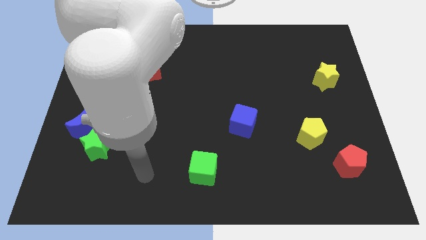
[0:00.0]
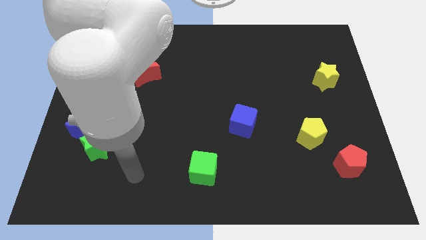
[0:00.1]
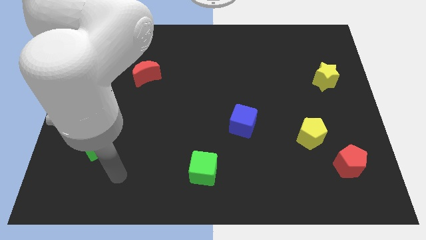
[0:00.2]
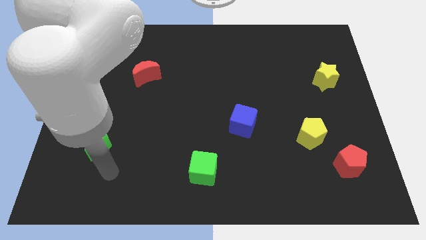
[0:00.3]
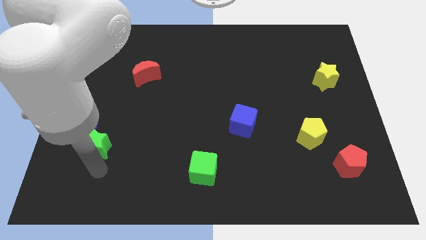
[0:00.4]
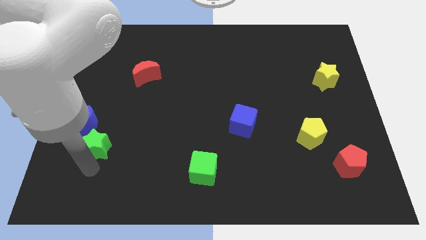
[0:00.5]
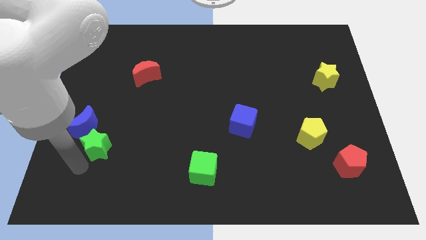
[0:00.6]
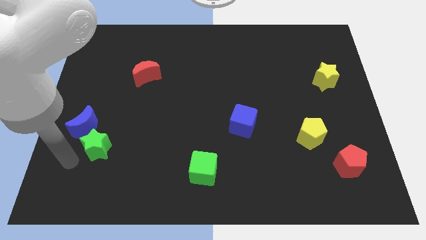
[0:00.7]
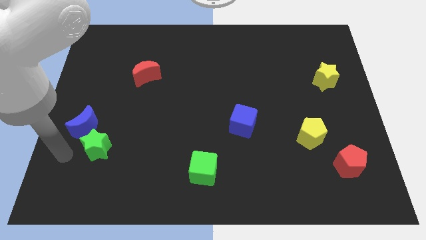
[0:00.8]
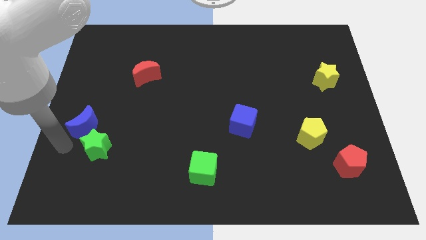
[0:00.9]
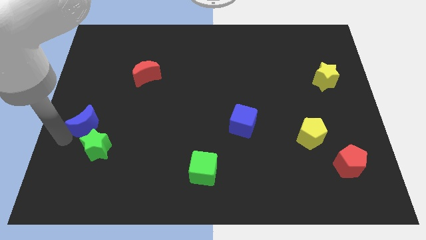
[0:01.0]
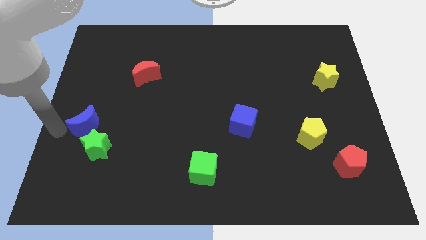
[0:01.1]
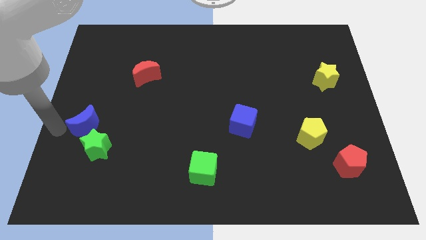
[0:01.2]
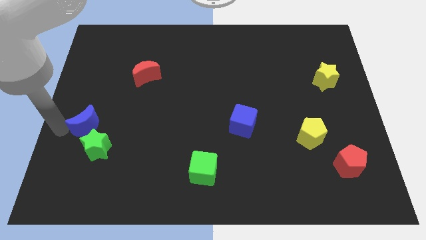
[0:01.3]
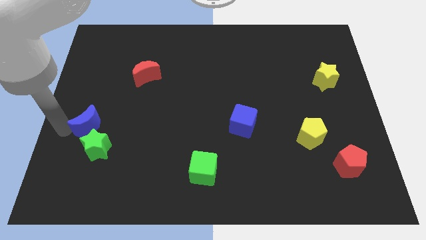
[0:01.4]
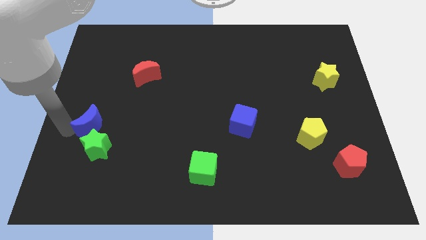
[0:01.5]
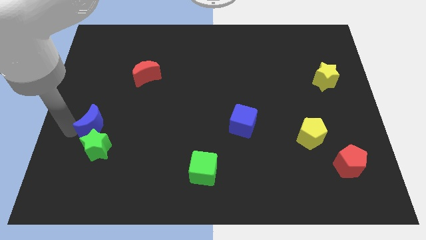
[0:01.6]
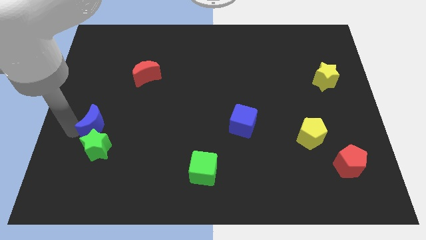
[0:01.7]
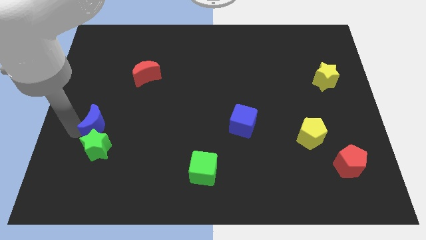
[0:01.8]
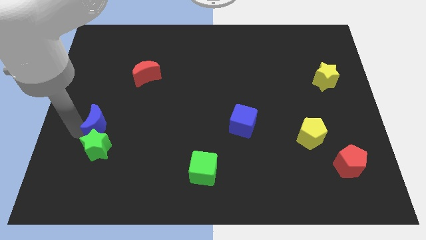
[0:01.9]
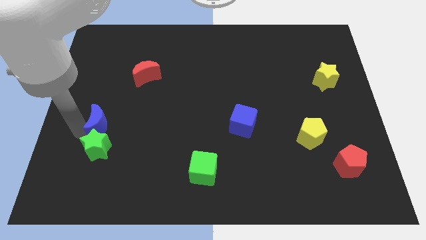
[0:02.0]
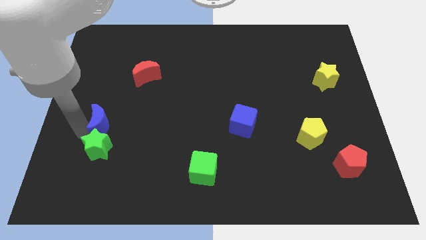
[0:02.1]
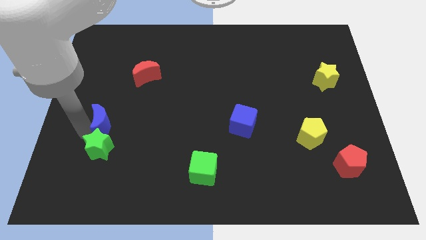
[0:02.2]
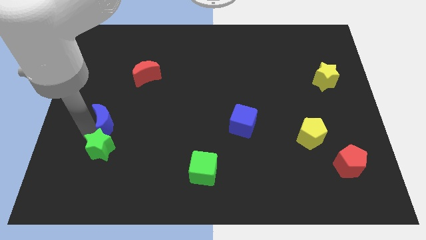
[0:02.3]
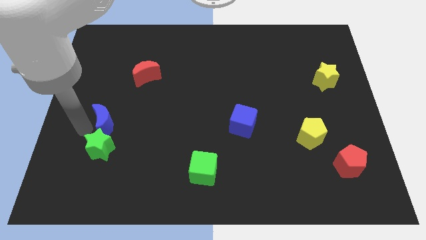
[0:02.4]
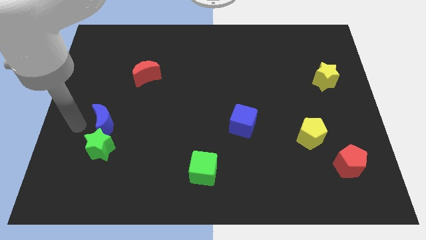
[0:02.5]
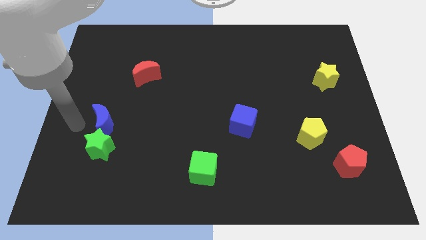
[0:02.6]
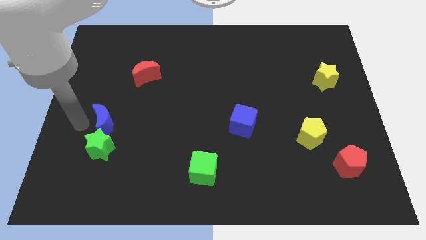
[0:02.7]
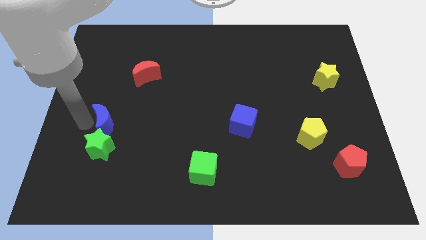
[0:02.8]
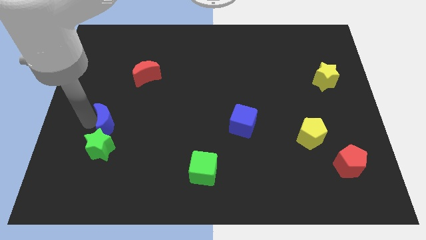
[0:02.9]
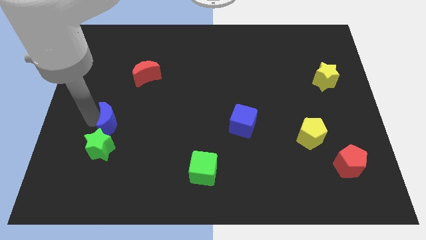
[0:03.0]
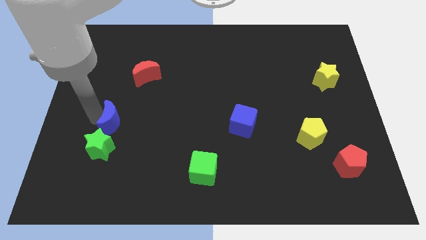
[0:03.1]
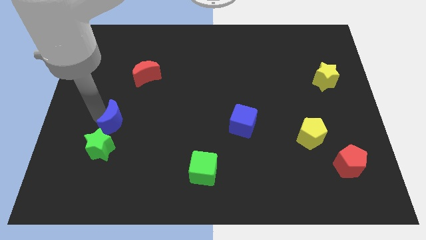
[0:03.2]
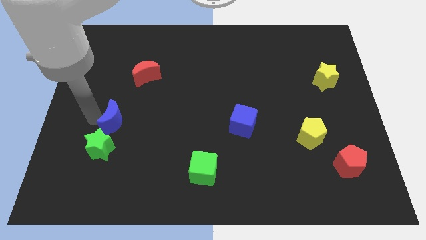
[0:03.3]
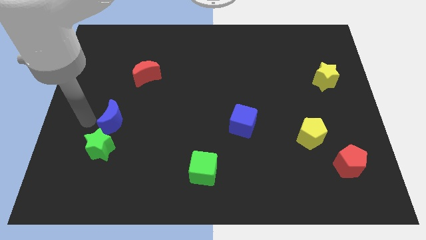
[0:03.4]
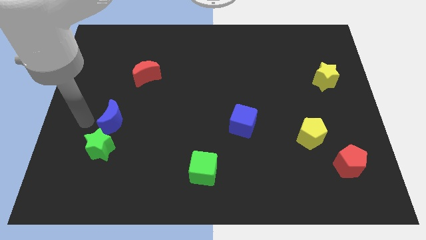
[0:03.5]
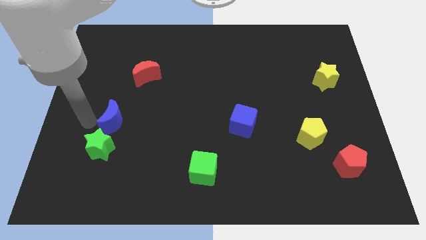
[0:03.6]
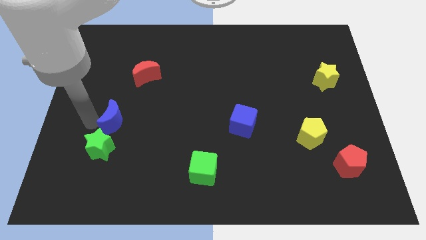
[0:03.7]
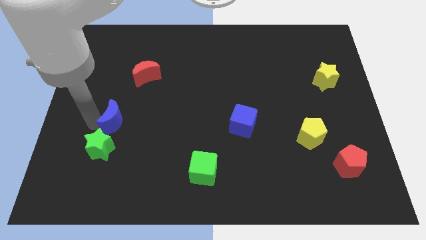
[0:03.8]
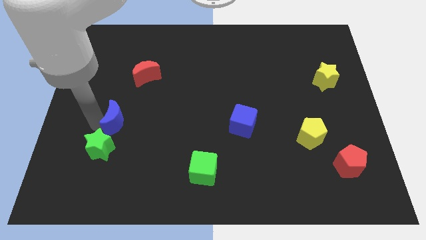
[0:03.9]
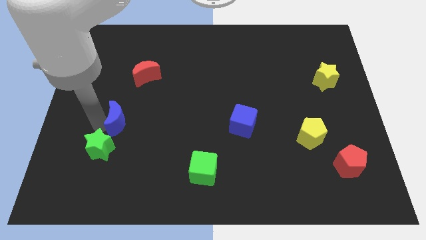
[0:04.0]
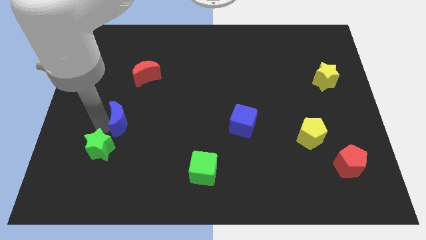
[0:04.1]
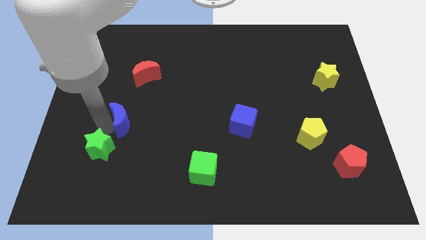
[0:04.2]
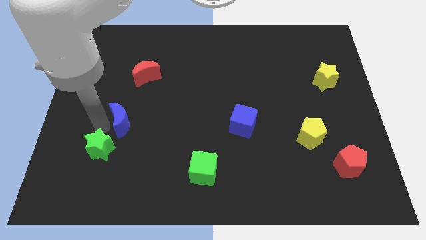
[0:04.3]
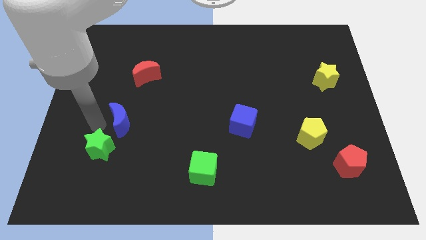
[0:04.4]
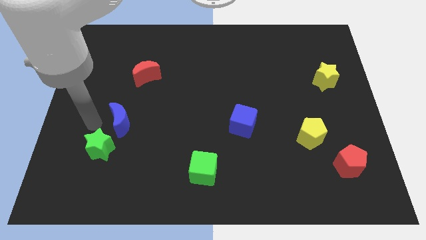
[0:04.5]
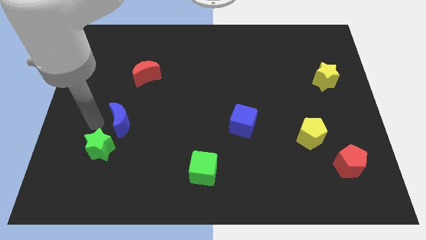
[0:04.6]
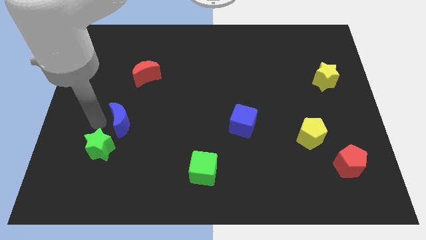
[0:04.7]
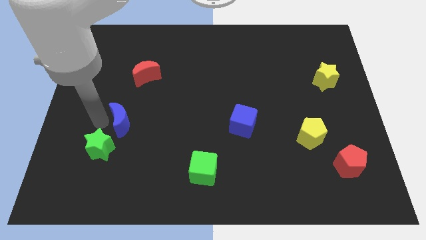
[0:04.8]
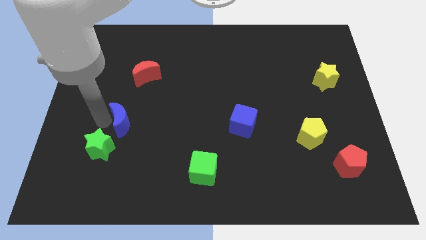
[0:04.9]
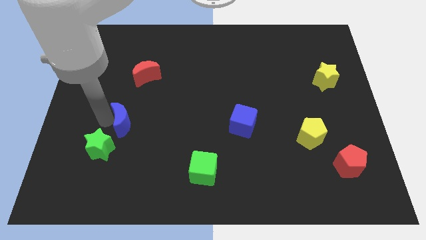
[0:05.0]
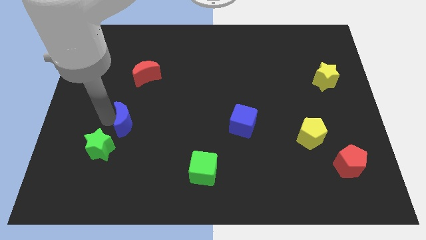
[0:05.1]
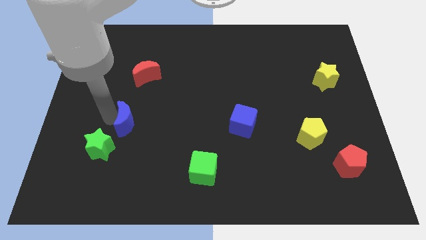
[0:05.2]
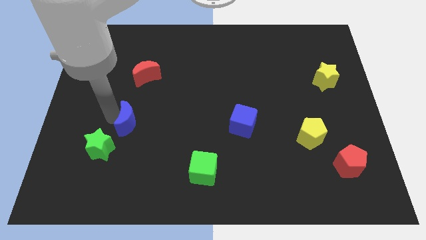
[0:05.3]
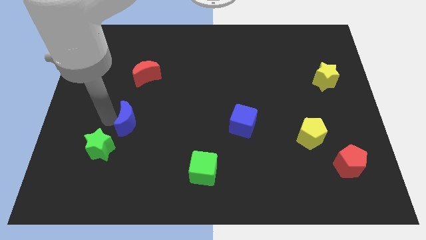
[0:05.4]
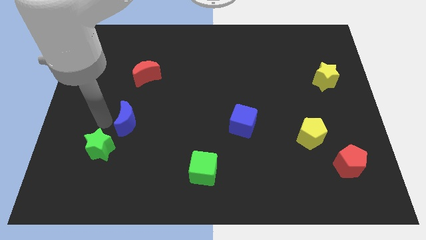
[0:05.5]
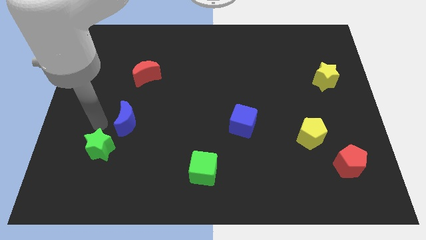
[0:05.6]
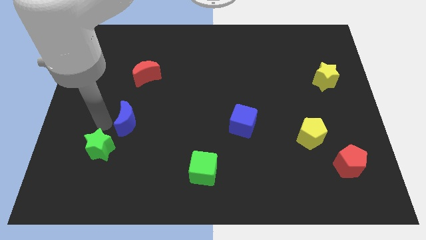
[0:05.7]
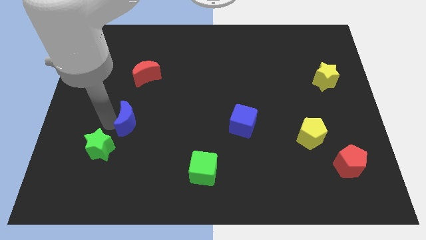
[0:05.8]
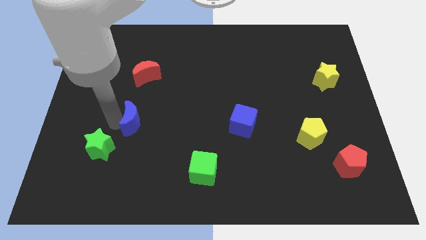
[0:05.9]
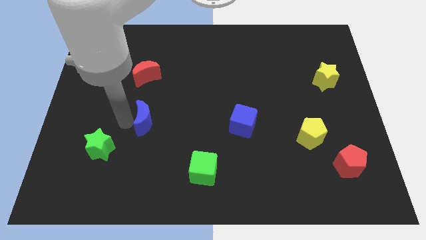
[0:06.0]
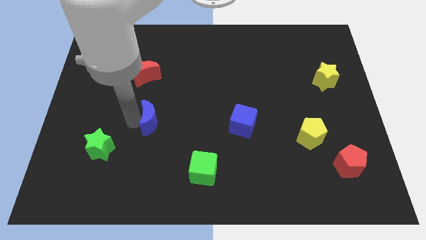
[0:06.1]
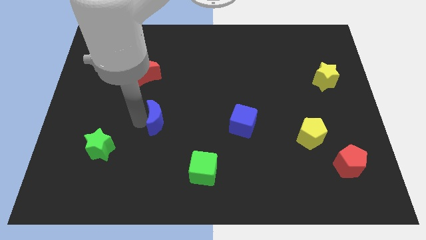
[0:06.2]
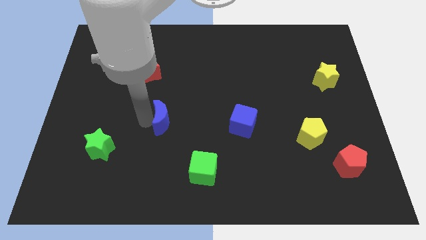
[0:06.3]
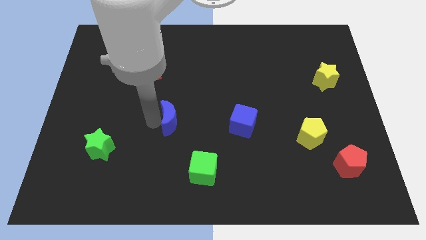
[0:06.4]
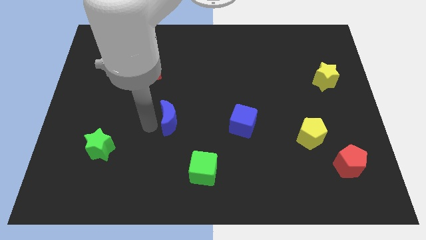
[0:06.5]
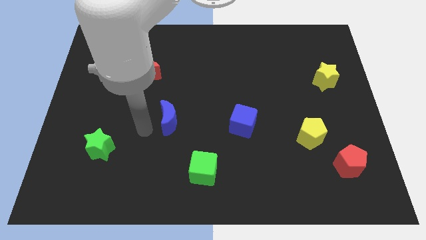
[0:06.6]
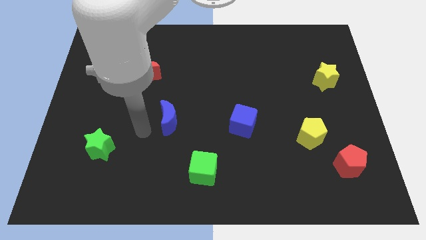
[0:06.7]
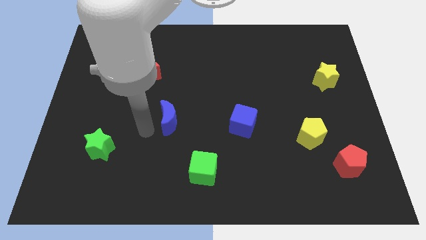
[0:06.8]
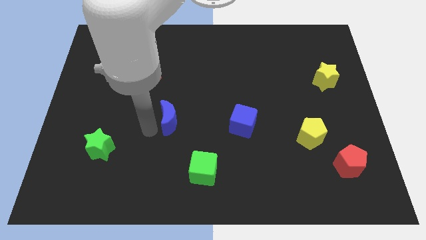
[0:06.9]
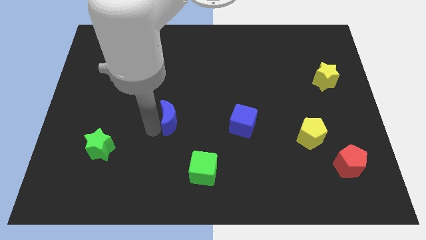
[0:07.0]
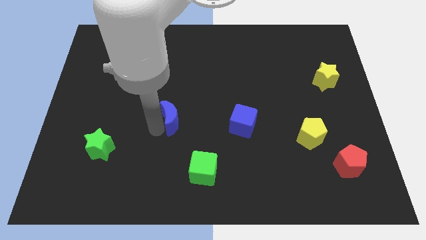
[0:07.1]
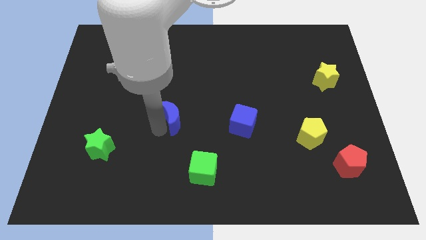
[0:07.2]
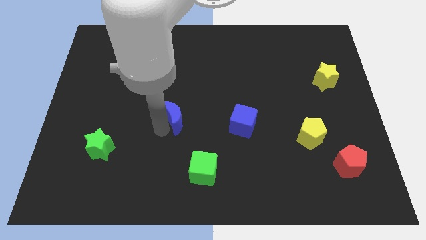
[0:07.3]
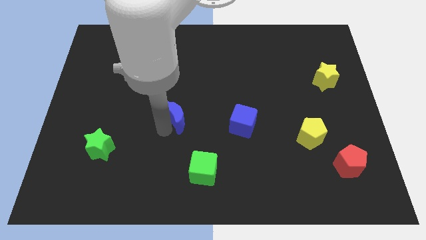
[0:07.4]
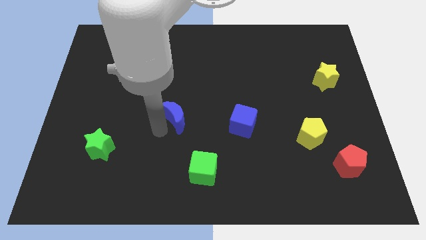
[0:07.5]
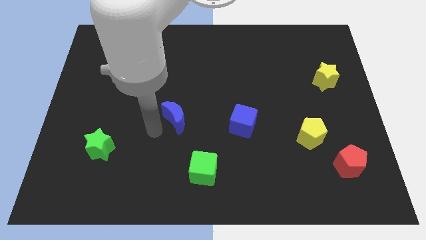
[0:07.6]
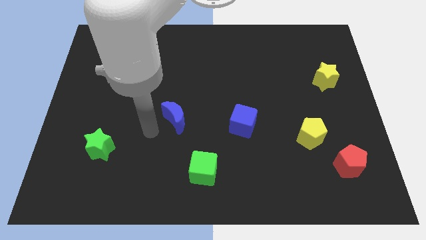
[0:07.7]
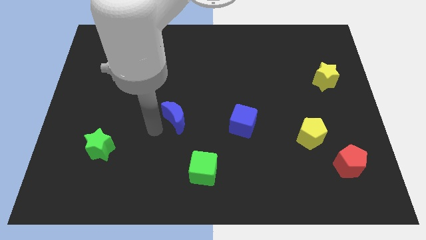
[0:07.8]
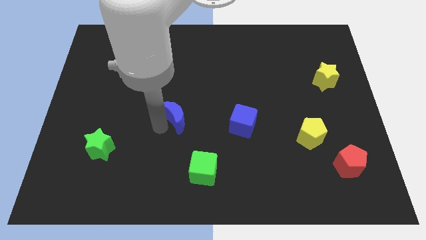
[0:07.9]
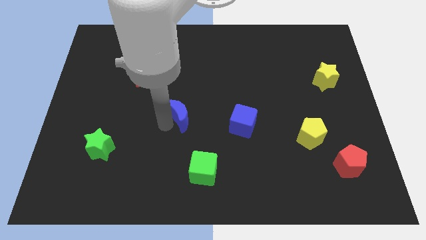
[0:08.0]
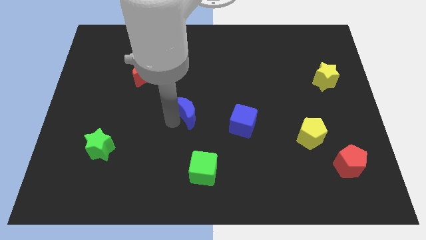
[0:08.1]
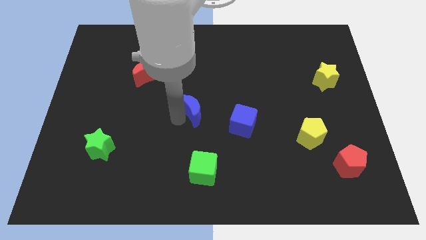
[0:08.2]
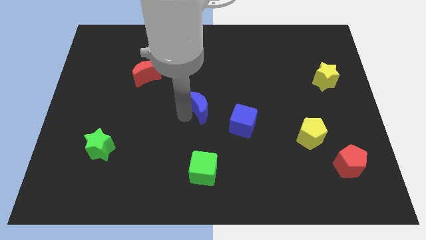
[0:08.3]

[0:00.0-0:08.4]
push the blue moon to the top left side of the blue cube
